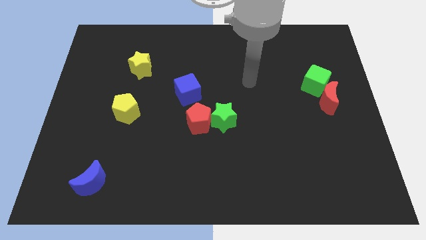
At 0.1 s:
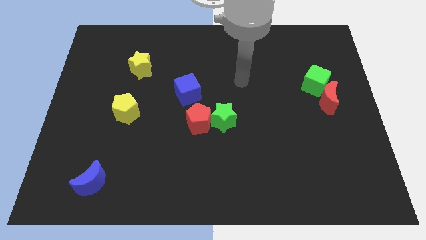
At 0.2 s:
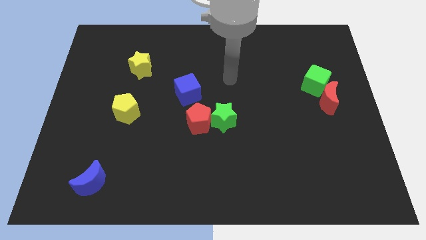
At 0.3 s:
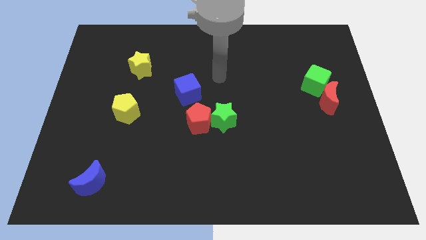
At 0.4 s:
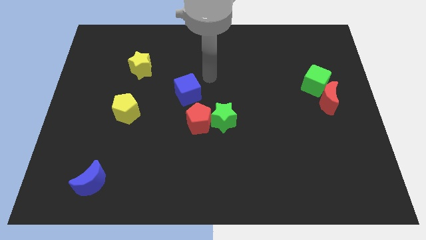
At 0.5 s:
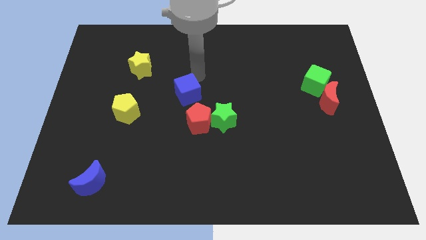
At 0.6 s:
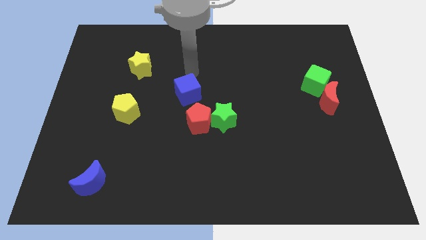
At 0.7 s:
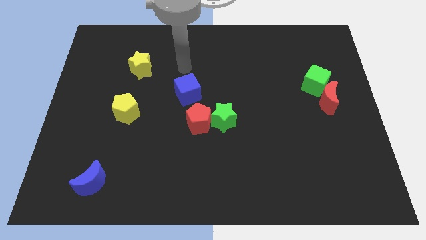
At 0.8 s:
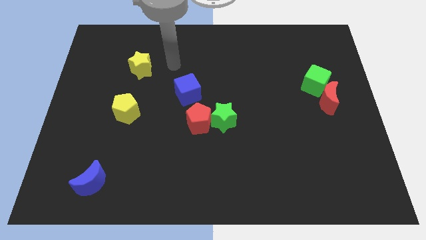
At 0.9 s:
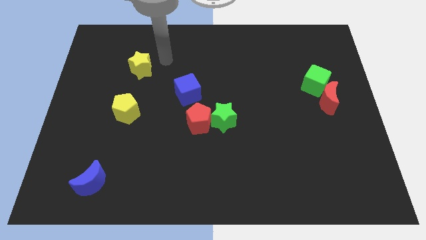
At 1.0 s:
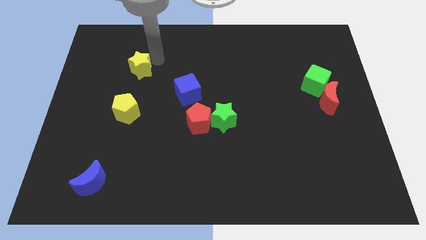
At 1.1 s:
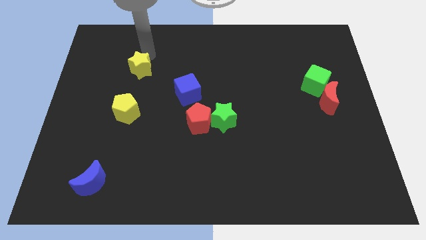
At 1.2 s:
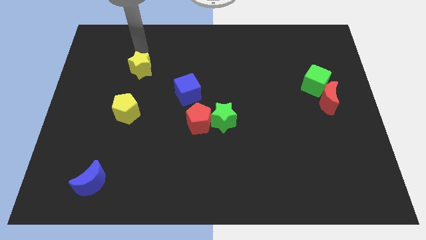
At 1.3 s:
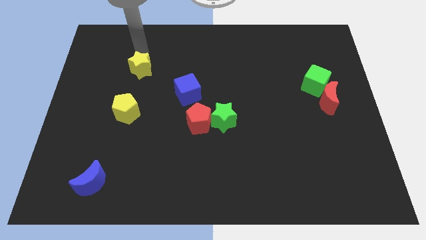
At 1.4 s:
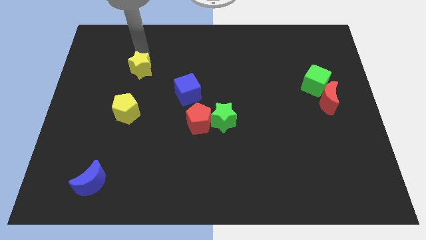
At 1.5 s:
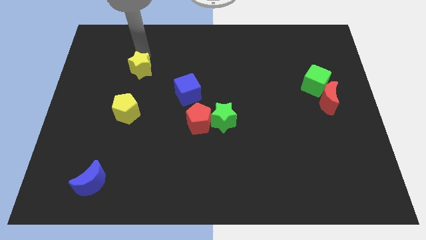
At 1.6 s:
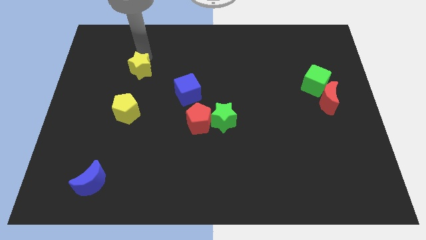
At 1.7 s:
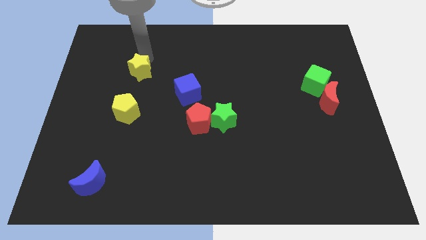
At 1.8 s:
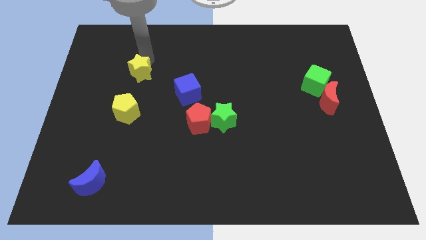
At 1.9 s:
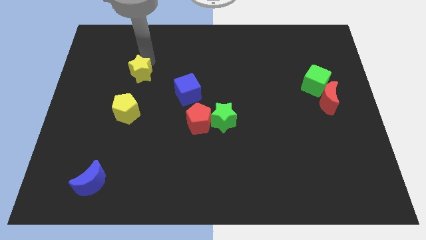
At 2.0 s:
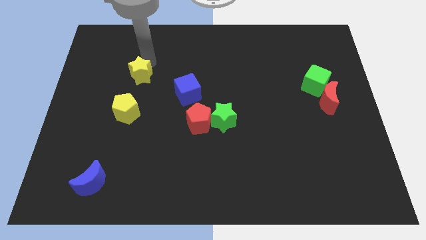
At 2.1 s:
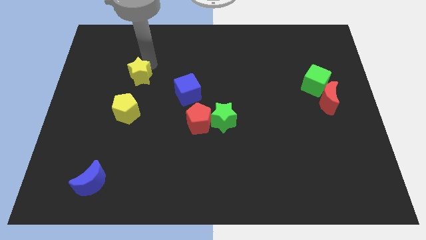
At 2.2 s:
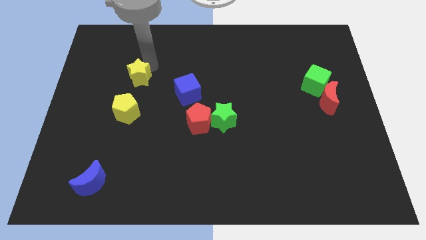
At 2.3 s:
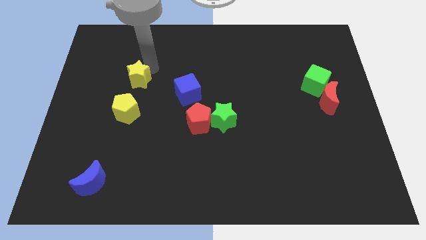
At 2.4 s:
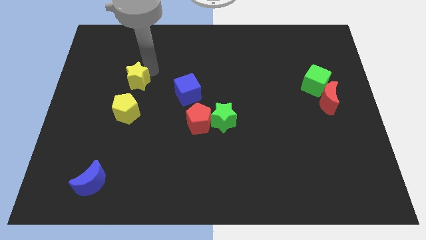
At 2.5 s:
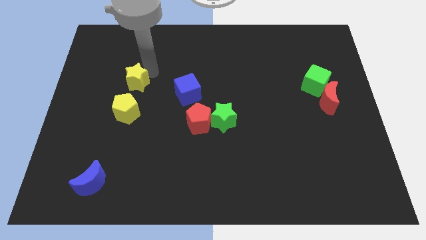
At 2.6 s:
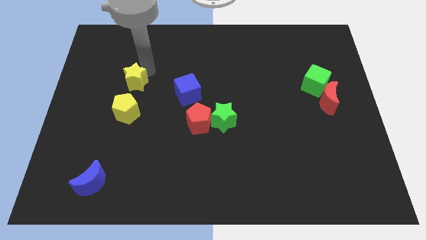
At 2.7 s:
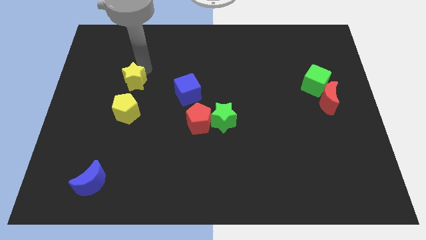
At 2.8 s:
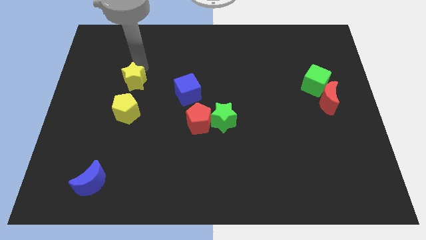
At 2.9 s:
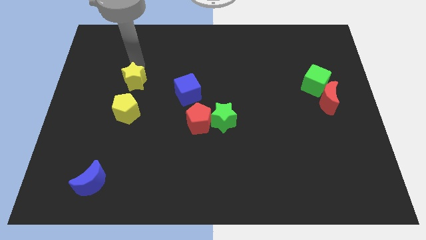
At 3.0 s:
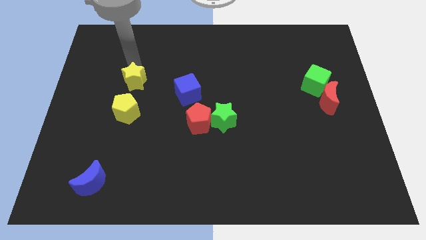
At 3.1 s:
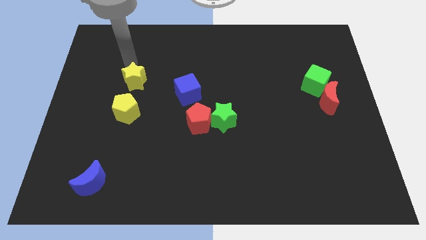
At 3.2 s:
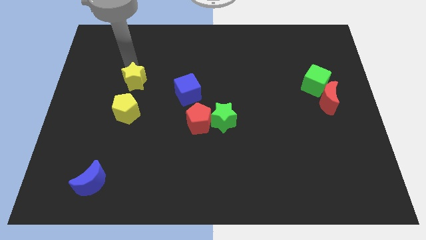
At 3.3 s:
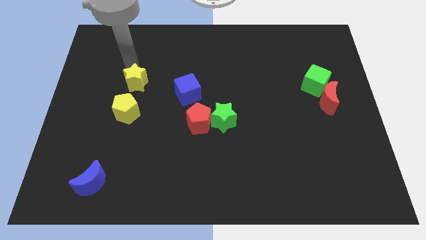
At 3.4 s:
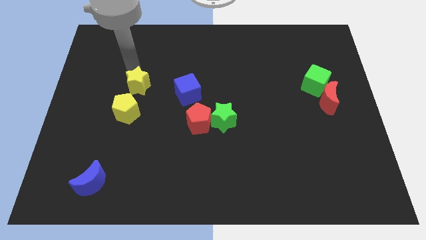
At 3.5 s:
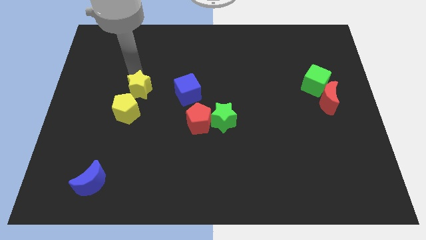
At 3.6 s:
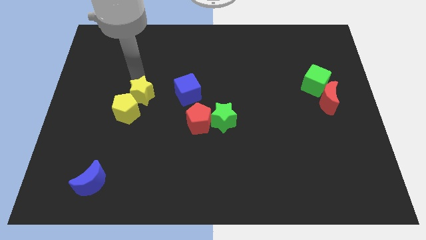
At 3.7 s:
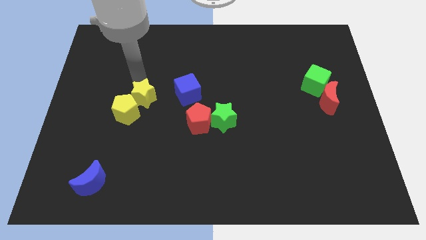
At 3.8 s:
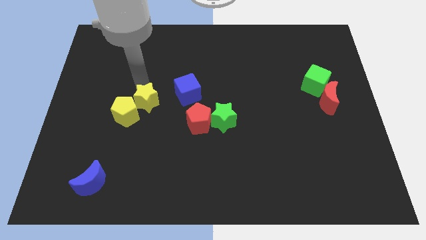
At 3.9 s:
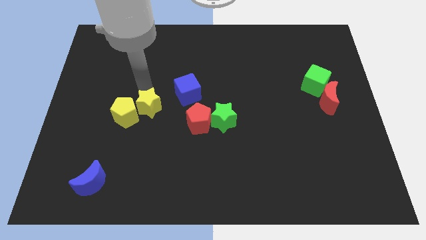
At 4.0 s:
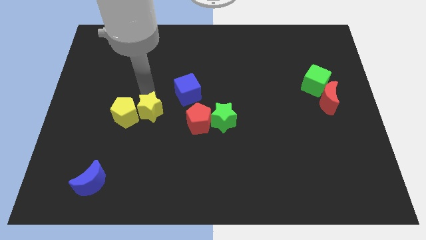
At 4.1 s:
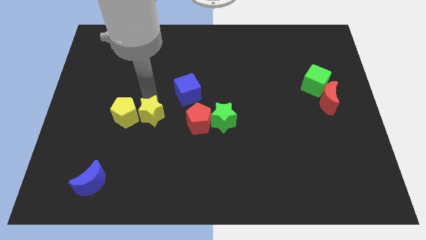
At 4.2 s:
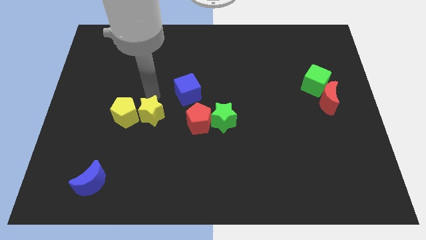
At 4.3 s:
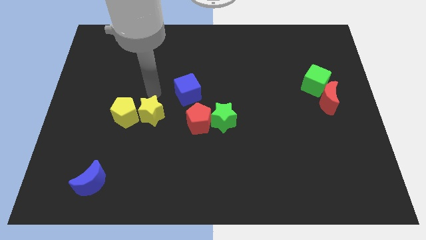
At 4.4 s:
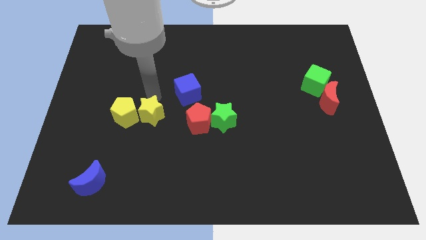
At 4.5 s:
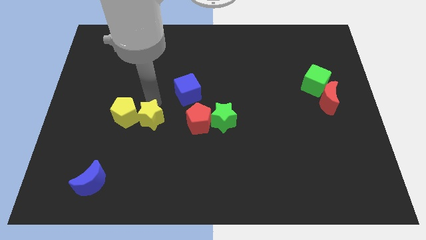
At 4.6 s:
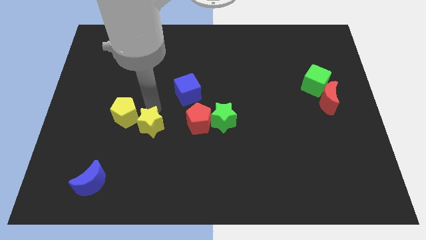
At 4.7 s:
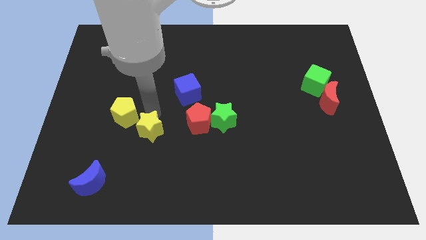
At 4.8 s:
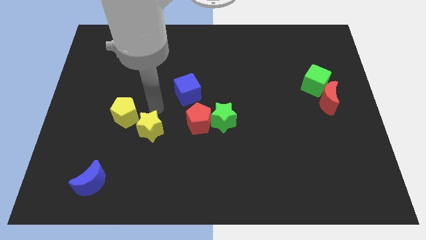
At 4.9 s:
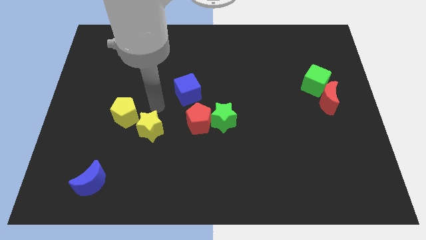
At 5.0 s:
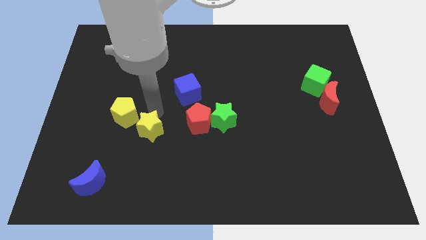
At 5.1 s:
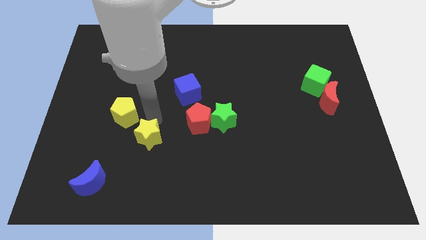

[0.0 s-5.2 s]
move the yellow star down

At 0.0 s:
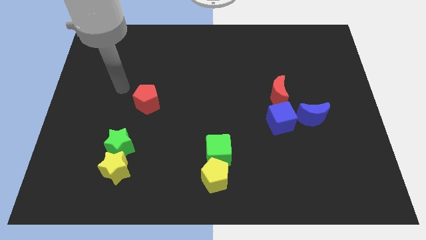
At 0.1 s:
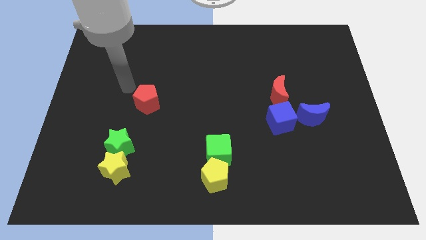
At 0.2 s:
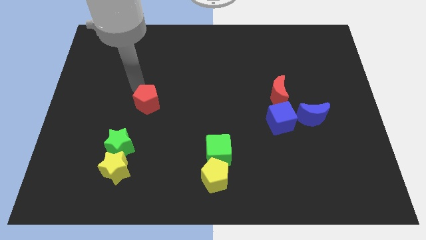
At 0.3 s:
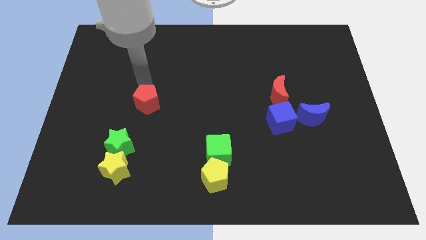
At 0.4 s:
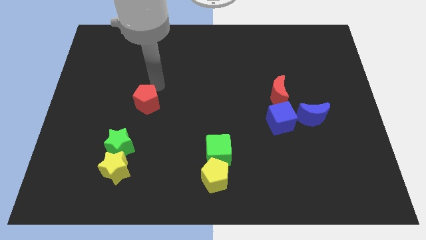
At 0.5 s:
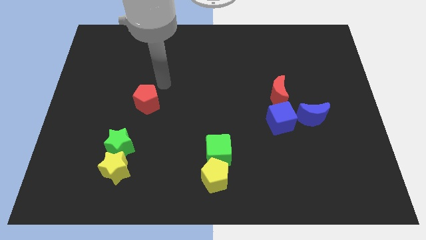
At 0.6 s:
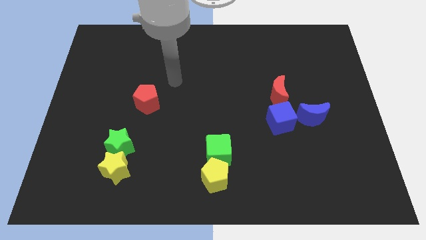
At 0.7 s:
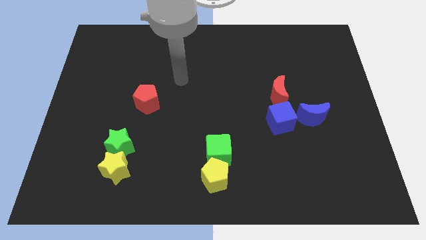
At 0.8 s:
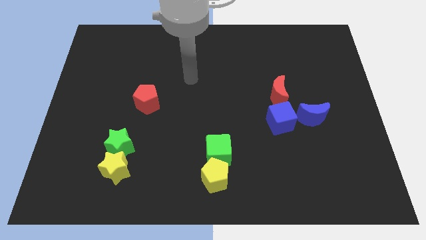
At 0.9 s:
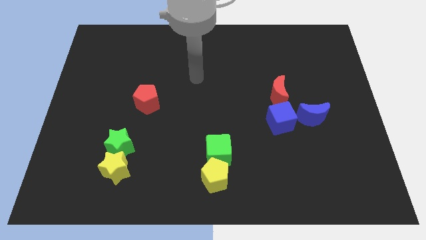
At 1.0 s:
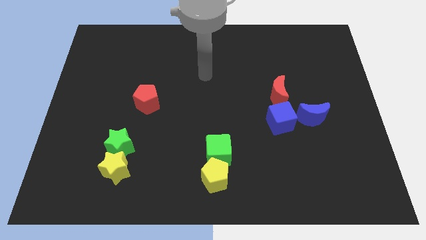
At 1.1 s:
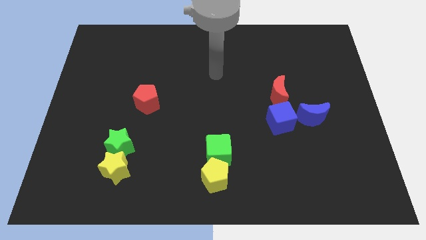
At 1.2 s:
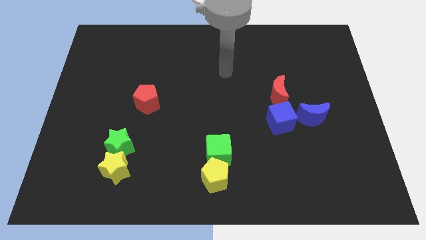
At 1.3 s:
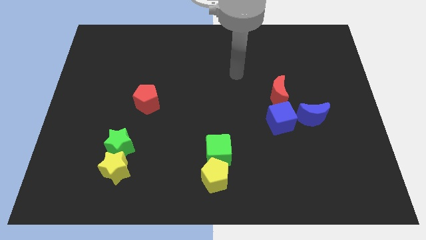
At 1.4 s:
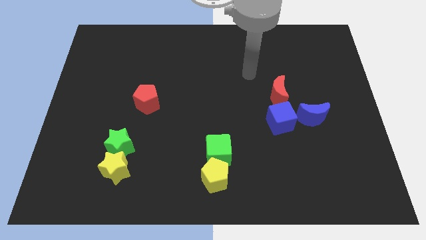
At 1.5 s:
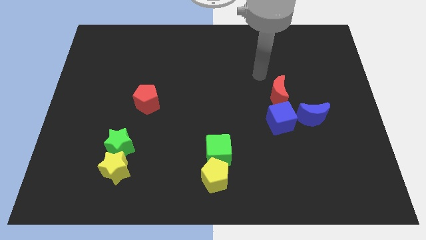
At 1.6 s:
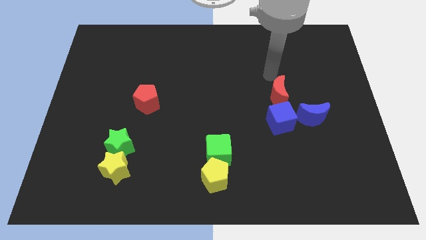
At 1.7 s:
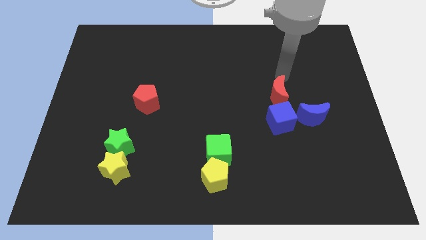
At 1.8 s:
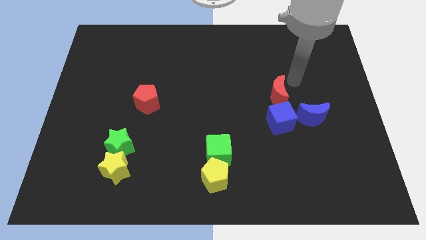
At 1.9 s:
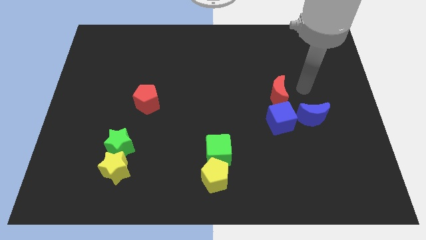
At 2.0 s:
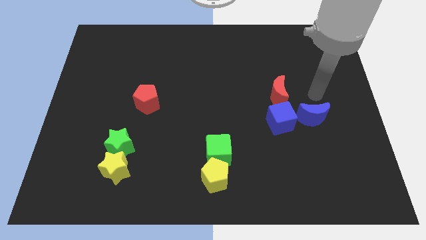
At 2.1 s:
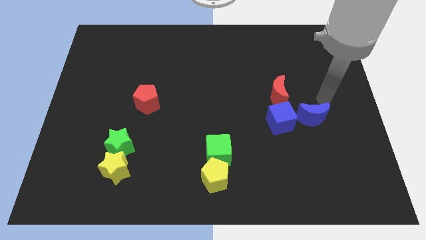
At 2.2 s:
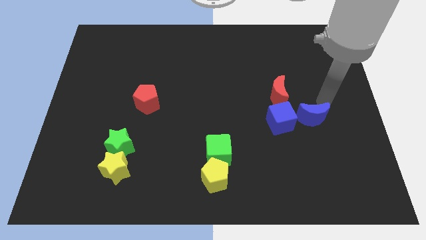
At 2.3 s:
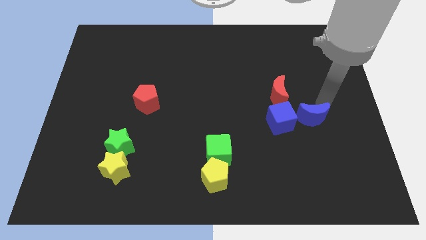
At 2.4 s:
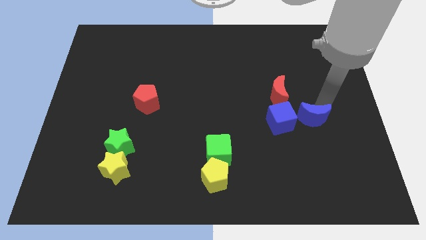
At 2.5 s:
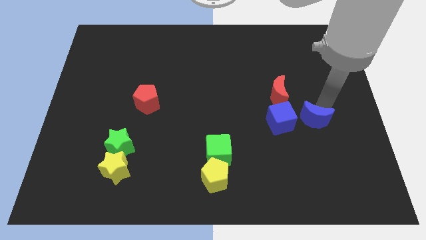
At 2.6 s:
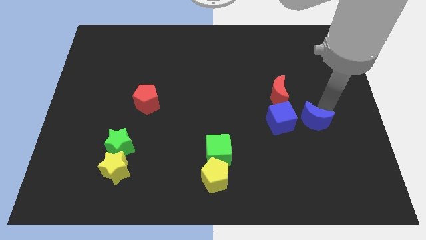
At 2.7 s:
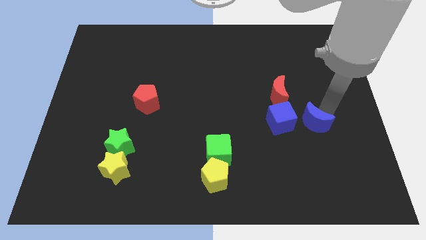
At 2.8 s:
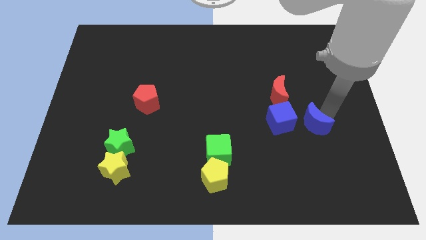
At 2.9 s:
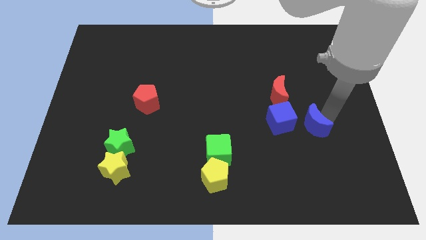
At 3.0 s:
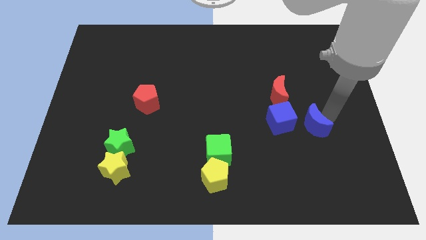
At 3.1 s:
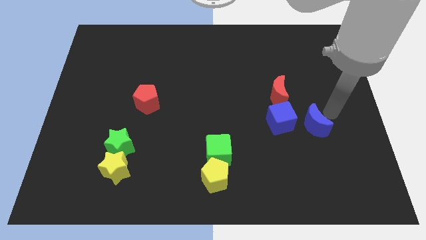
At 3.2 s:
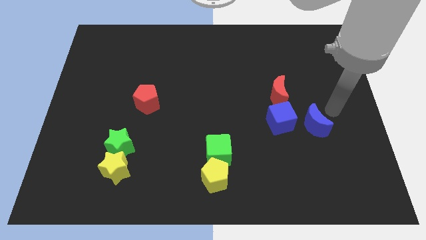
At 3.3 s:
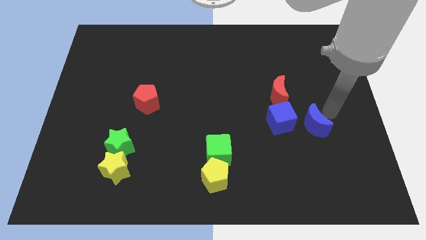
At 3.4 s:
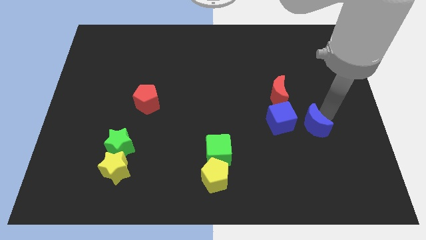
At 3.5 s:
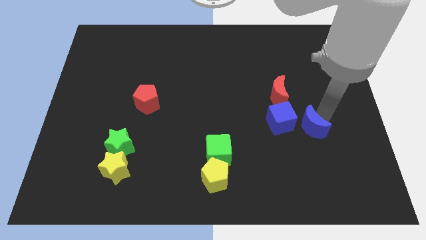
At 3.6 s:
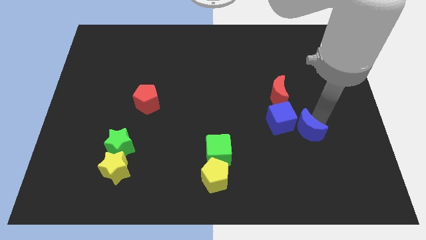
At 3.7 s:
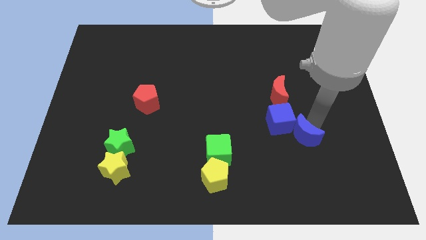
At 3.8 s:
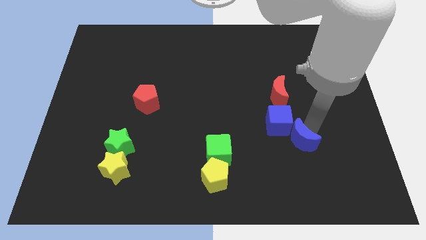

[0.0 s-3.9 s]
slightly slide the blue moon down and left diagonally
